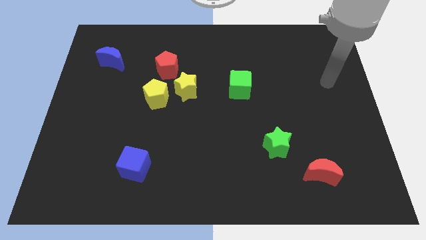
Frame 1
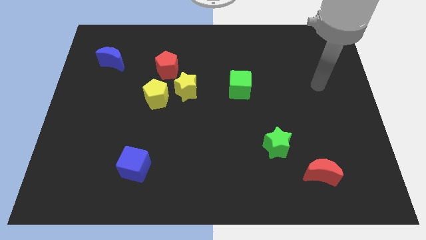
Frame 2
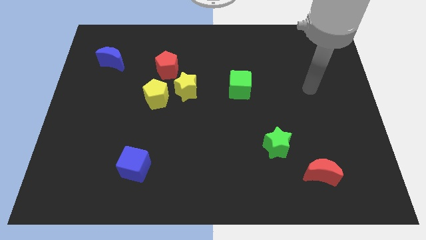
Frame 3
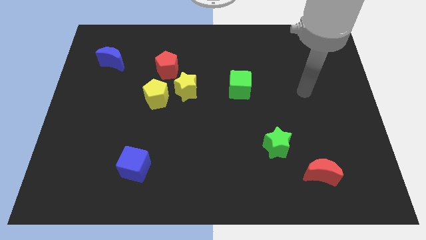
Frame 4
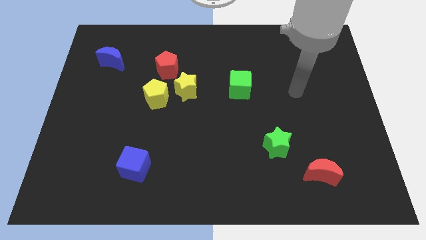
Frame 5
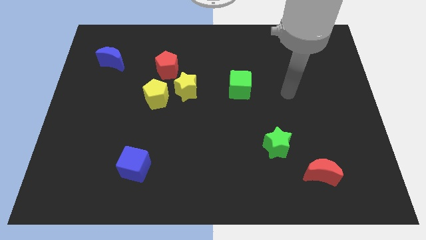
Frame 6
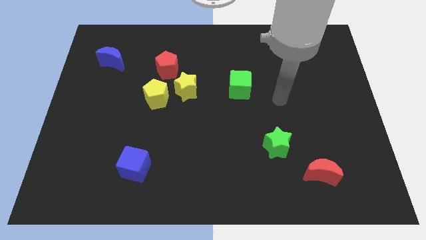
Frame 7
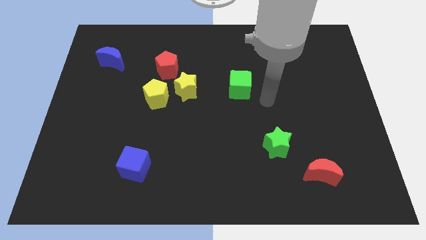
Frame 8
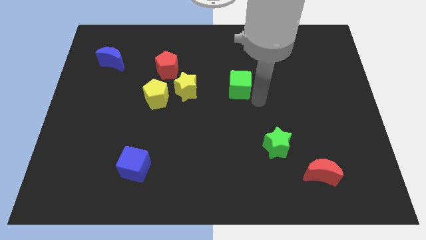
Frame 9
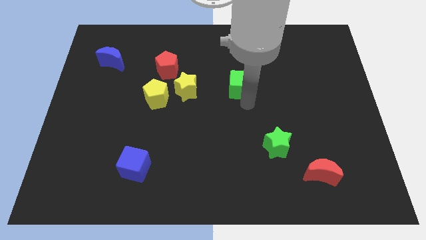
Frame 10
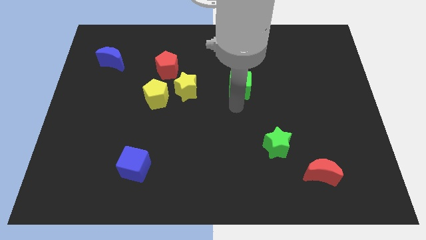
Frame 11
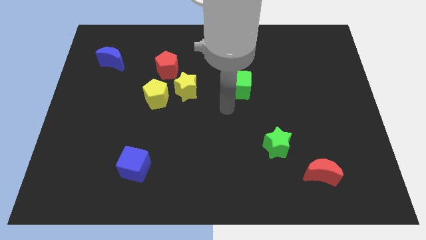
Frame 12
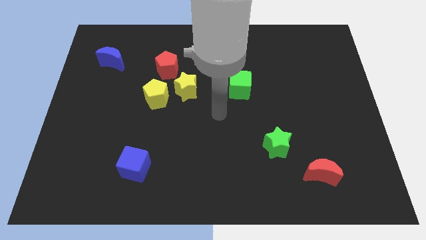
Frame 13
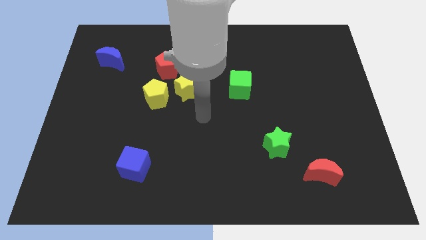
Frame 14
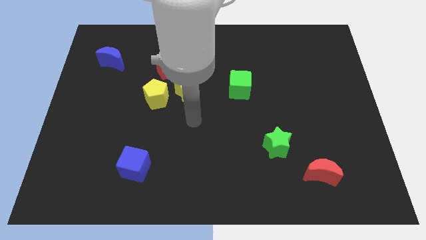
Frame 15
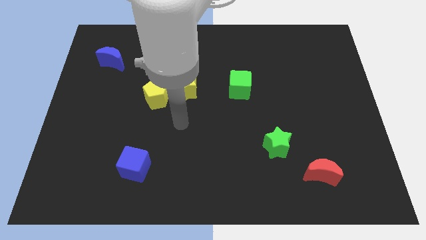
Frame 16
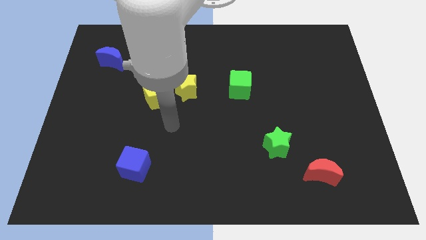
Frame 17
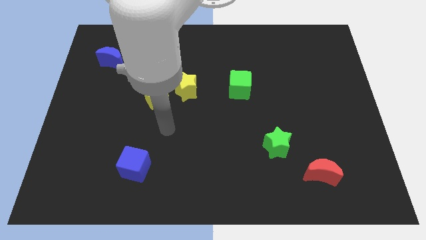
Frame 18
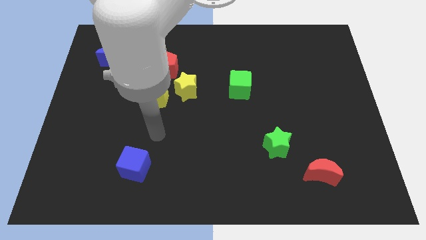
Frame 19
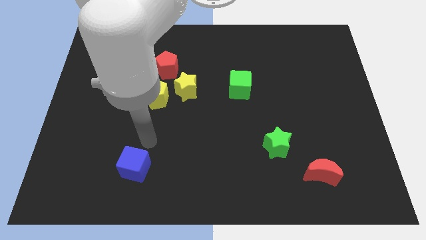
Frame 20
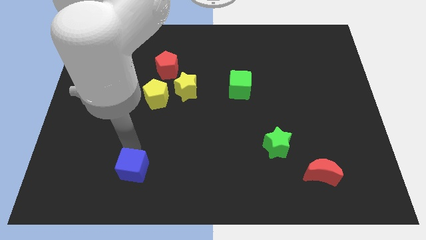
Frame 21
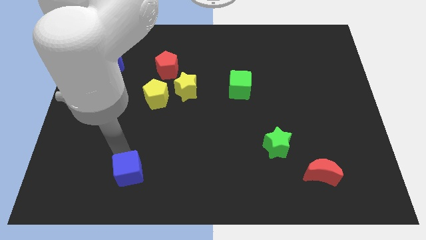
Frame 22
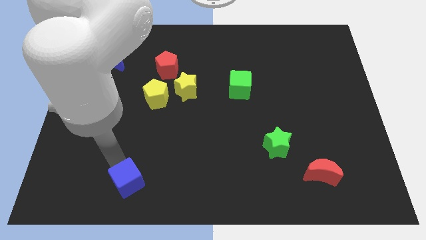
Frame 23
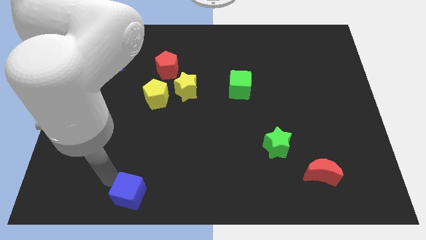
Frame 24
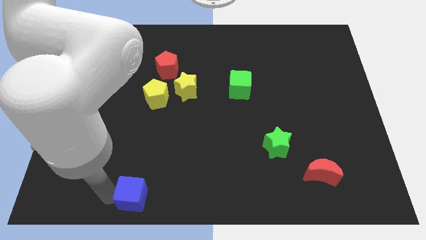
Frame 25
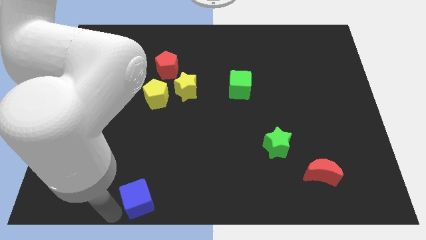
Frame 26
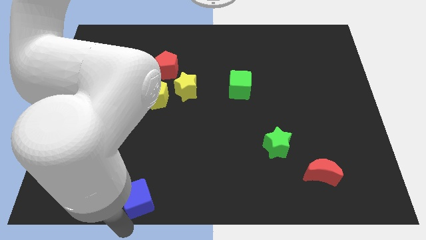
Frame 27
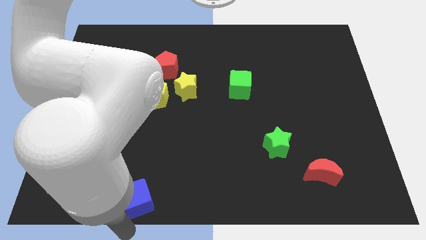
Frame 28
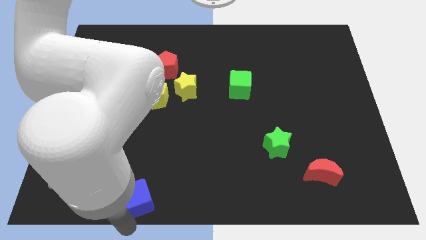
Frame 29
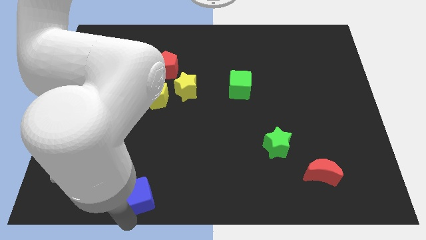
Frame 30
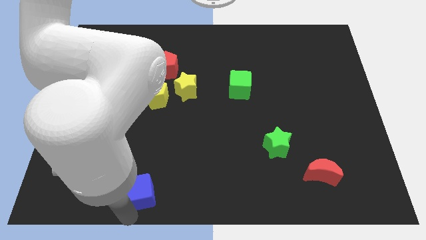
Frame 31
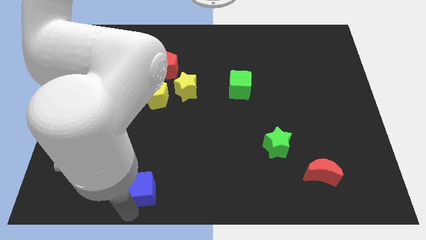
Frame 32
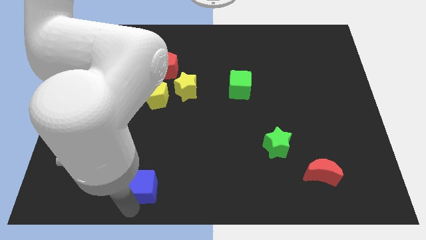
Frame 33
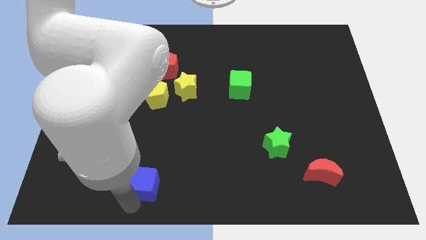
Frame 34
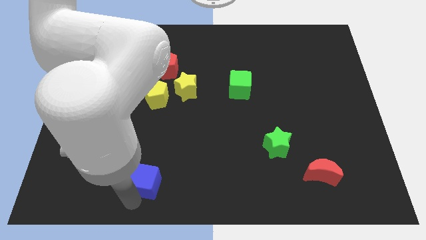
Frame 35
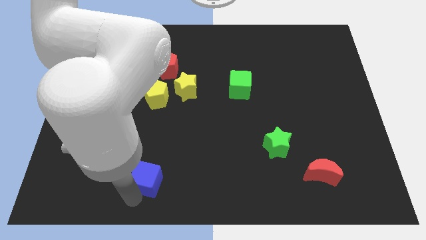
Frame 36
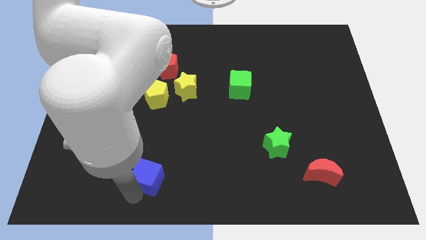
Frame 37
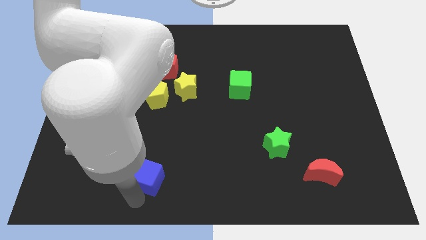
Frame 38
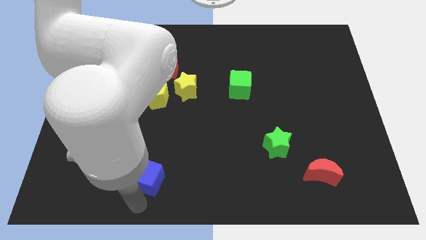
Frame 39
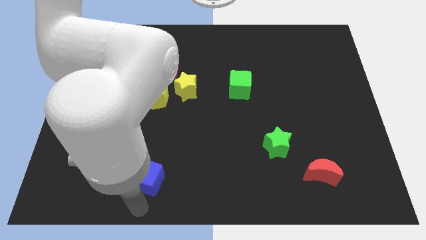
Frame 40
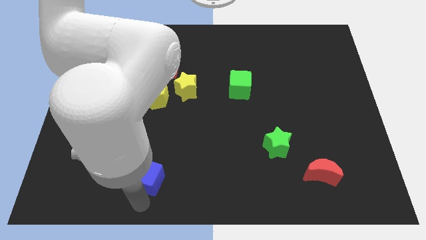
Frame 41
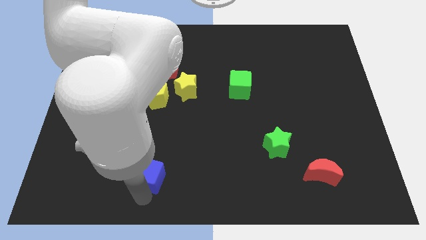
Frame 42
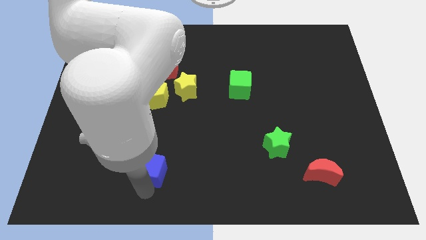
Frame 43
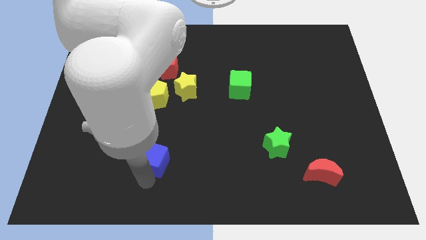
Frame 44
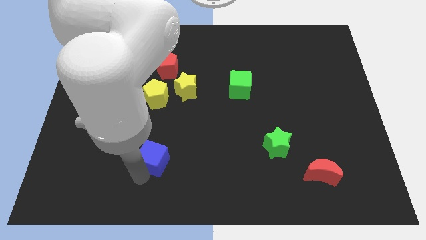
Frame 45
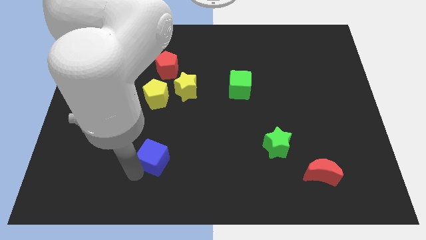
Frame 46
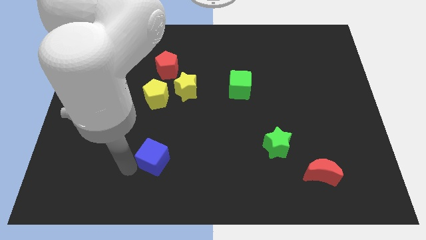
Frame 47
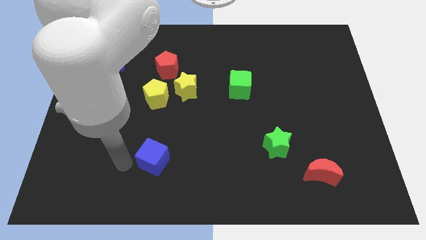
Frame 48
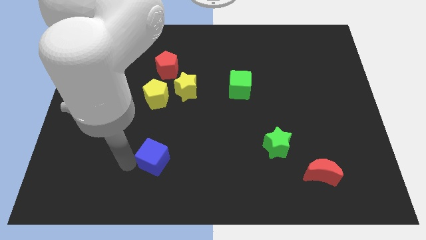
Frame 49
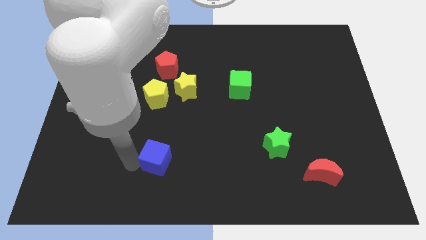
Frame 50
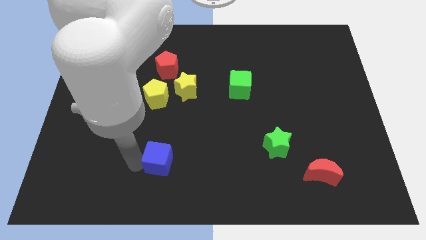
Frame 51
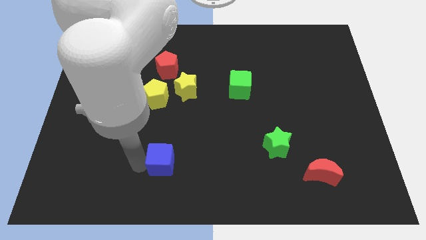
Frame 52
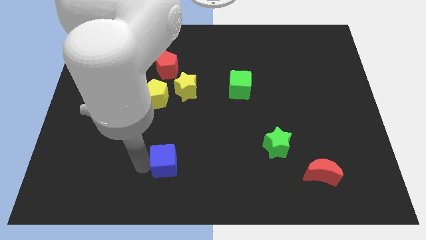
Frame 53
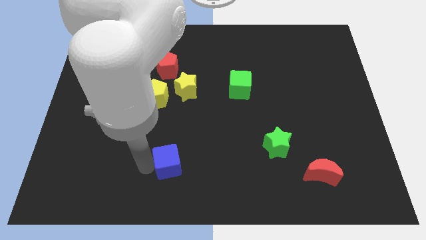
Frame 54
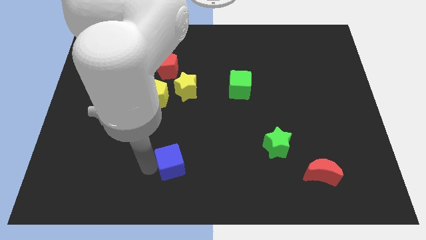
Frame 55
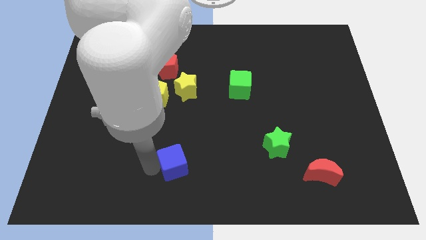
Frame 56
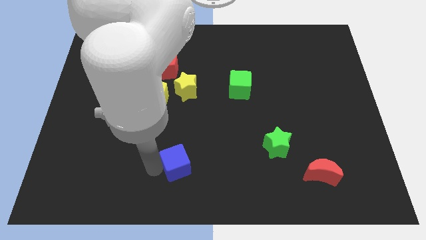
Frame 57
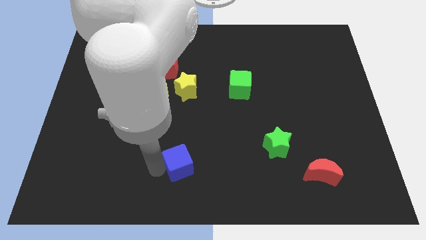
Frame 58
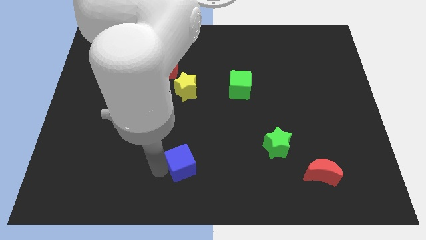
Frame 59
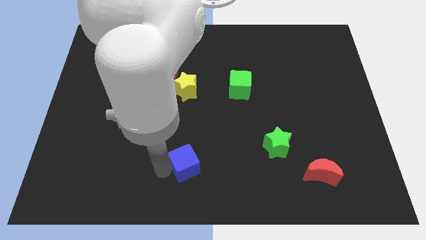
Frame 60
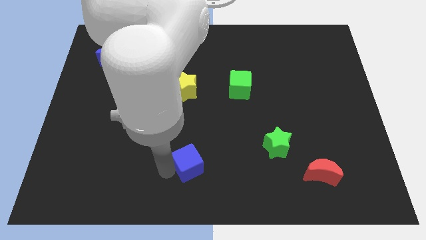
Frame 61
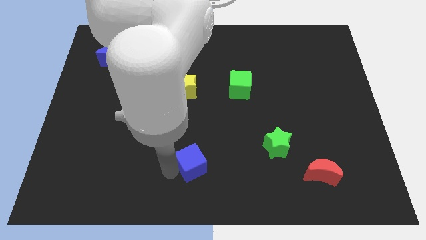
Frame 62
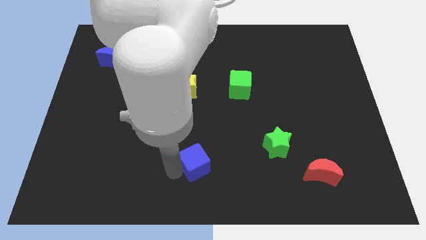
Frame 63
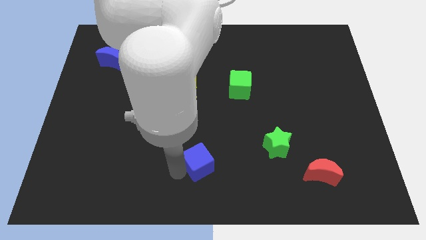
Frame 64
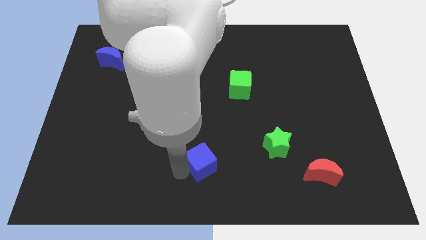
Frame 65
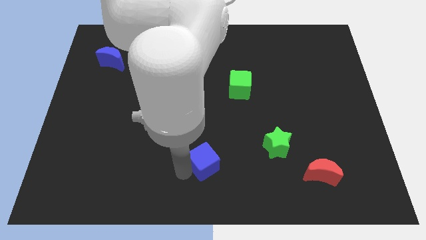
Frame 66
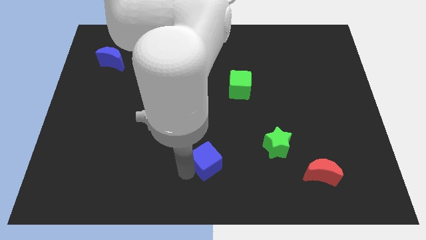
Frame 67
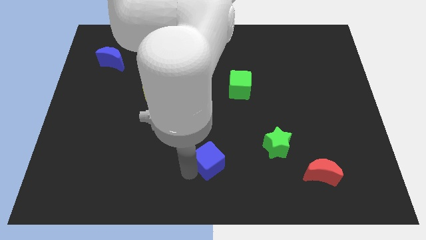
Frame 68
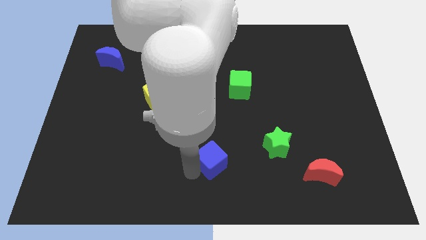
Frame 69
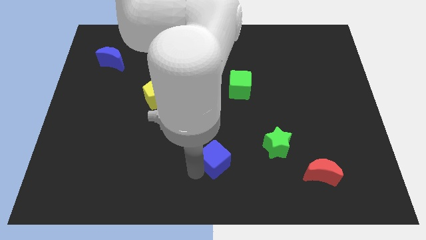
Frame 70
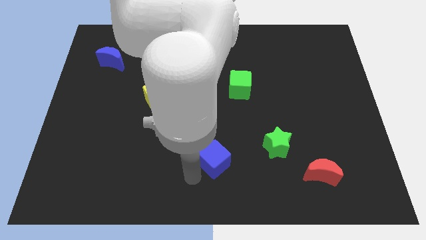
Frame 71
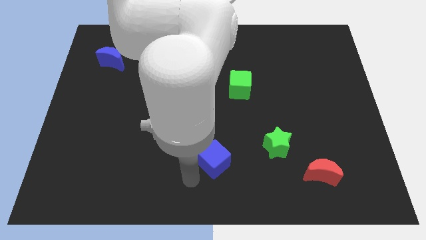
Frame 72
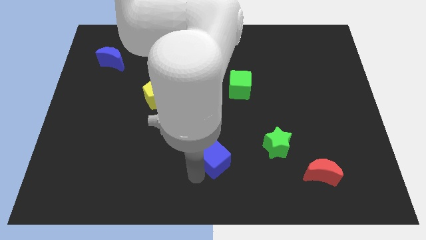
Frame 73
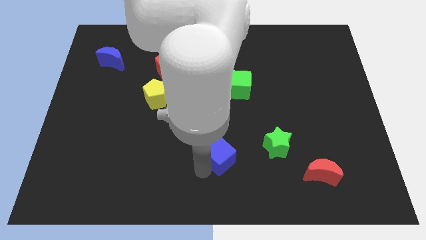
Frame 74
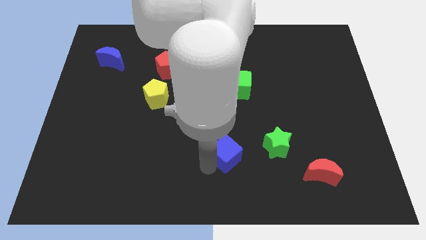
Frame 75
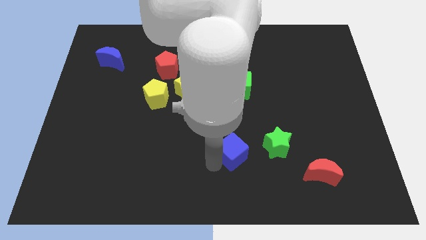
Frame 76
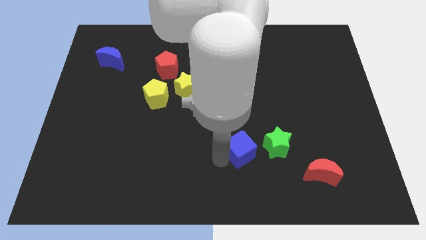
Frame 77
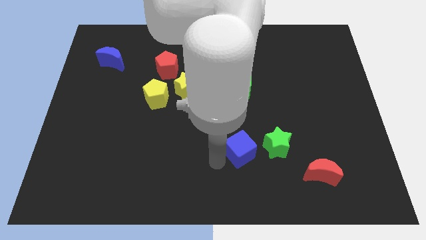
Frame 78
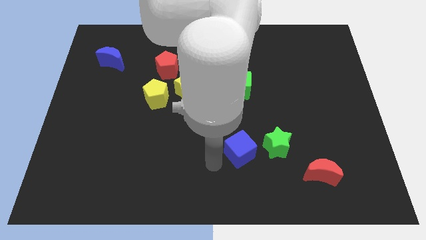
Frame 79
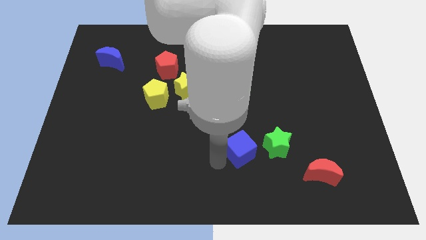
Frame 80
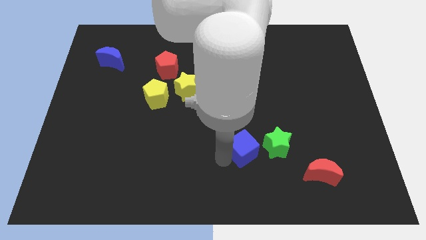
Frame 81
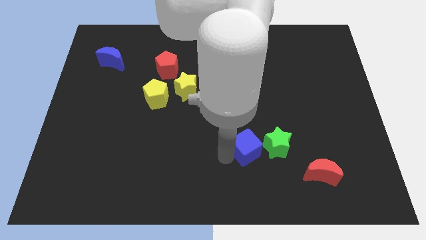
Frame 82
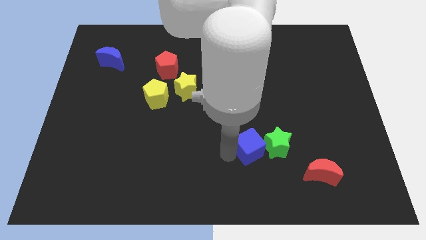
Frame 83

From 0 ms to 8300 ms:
slide the blue cube next to the green star

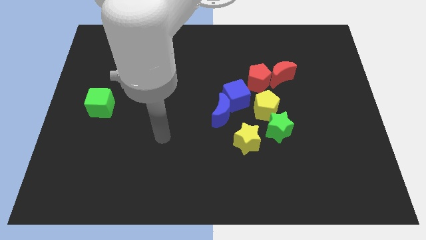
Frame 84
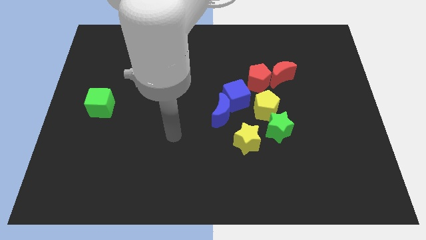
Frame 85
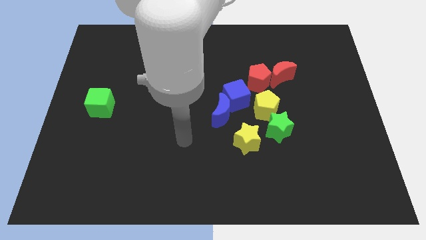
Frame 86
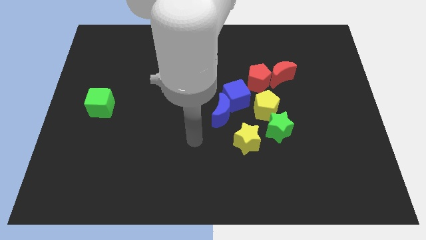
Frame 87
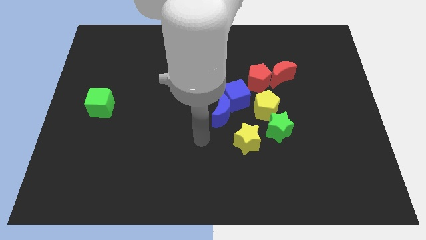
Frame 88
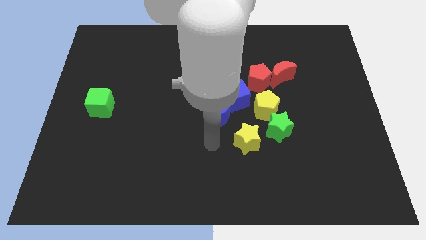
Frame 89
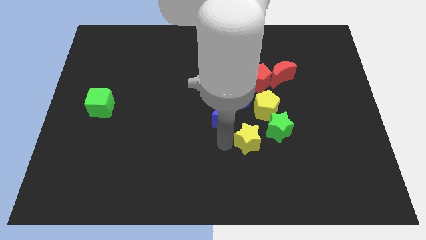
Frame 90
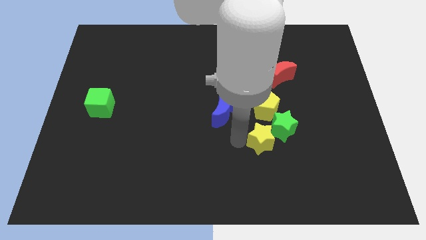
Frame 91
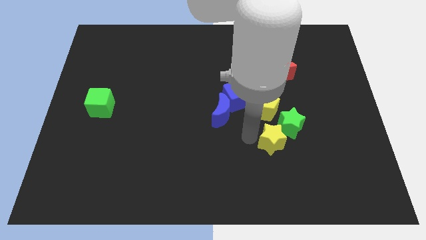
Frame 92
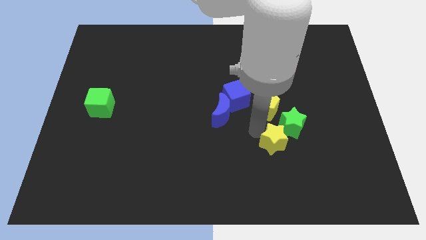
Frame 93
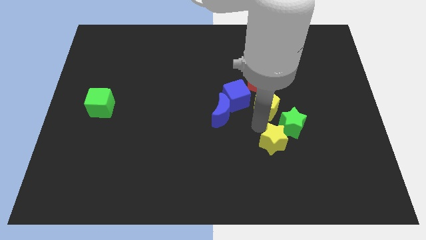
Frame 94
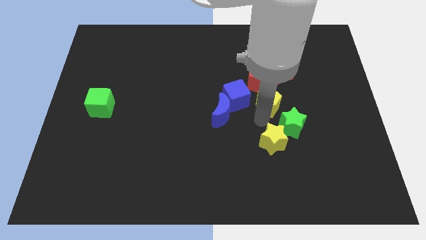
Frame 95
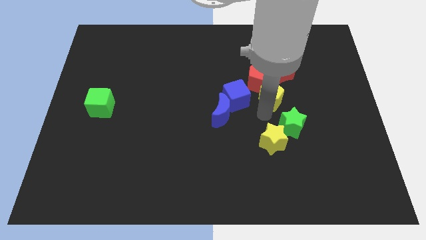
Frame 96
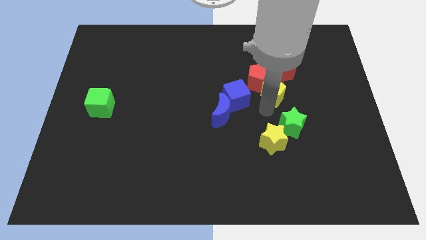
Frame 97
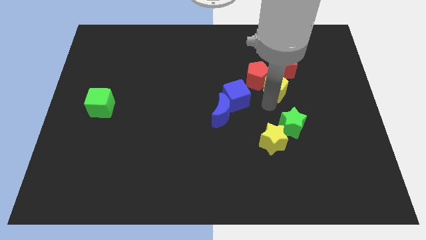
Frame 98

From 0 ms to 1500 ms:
move the yellow pentagon next to the red moon
